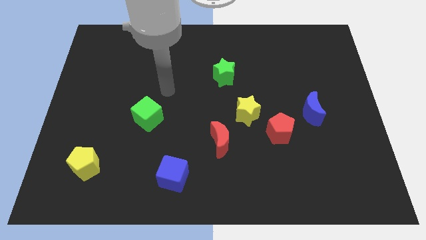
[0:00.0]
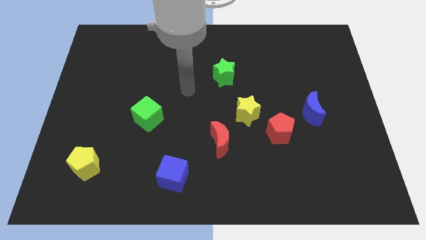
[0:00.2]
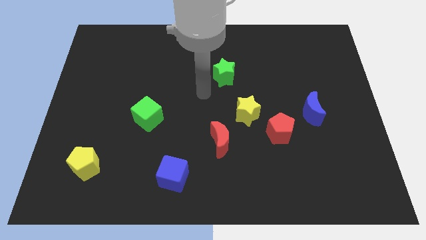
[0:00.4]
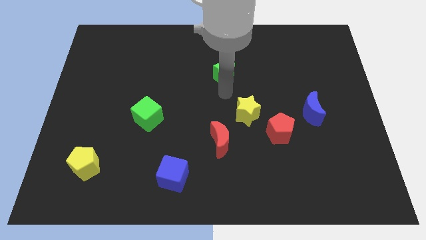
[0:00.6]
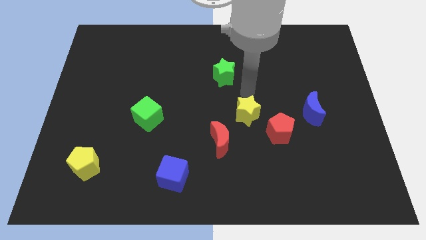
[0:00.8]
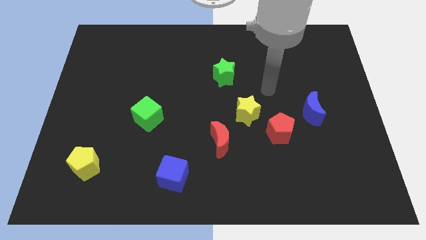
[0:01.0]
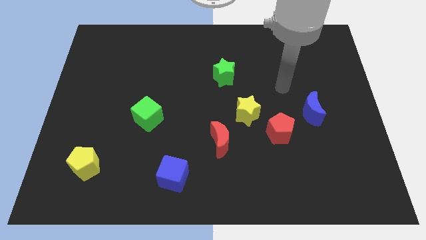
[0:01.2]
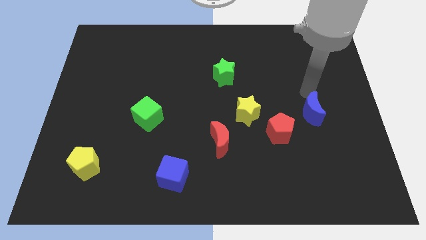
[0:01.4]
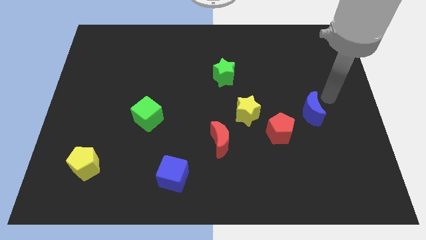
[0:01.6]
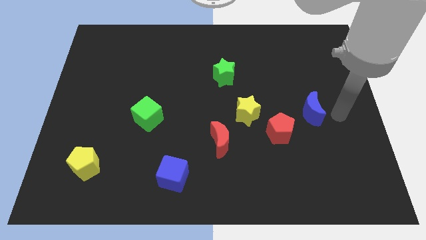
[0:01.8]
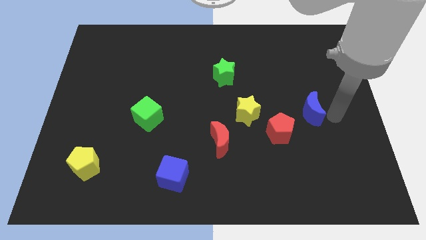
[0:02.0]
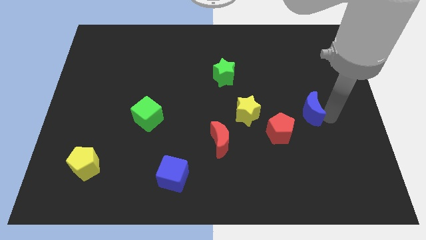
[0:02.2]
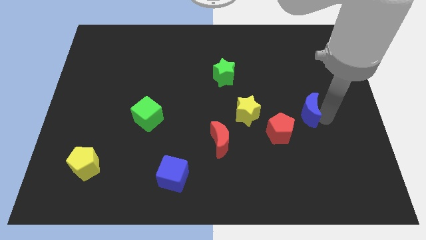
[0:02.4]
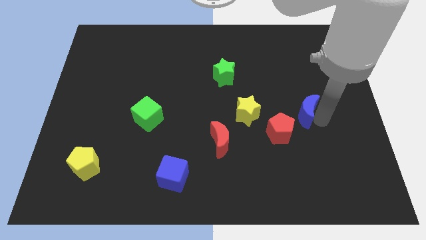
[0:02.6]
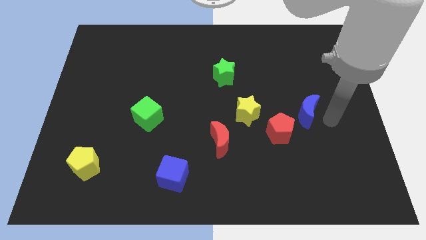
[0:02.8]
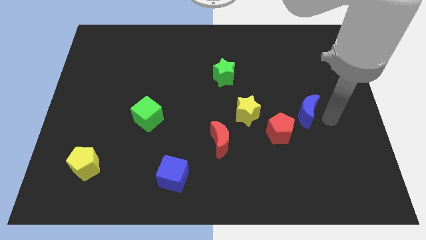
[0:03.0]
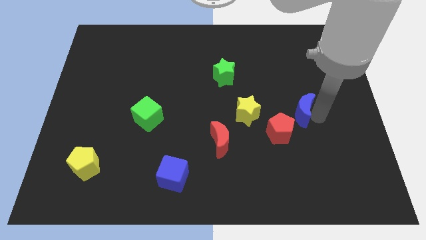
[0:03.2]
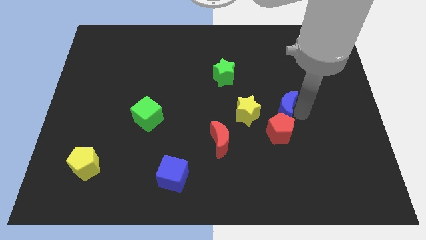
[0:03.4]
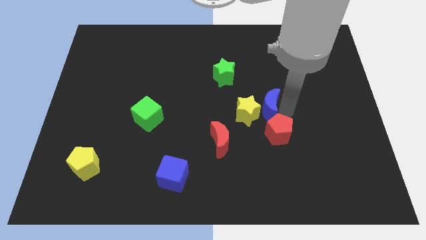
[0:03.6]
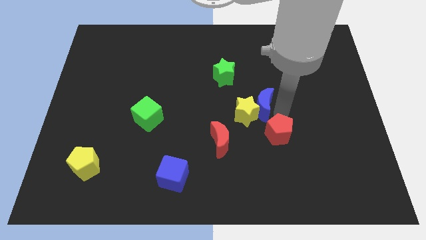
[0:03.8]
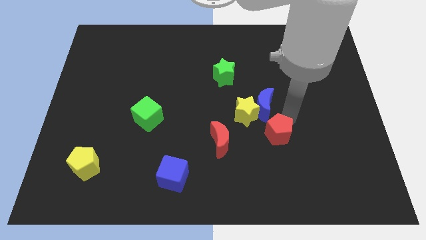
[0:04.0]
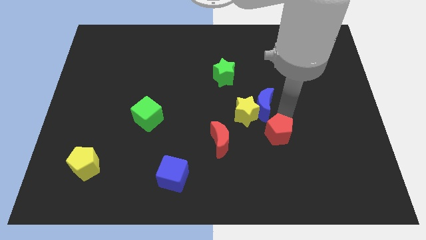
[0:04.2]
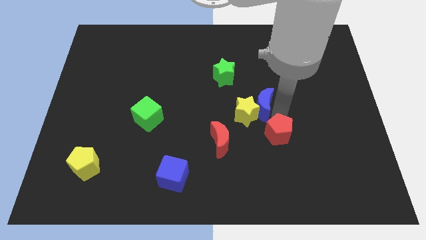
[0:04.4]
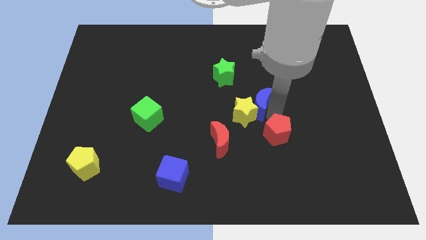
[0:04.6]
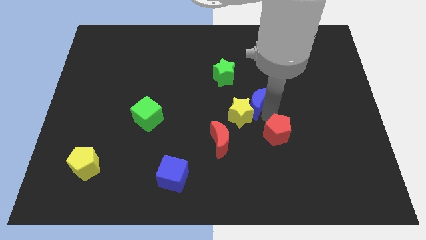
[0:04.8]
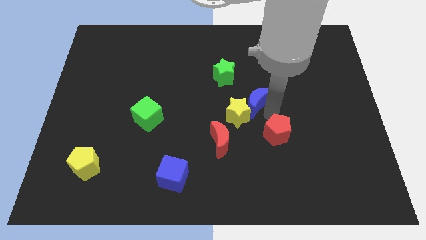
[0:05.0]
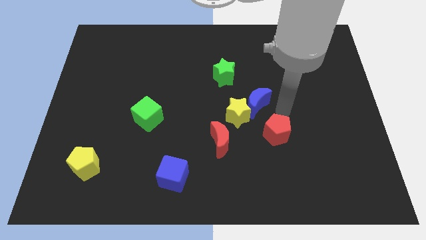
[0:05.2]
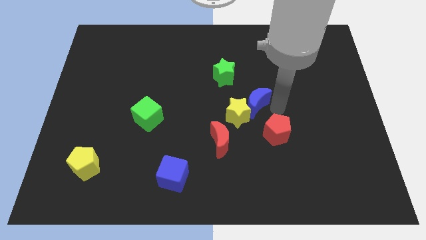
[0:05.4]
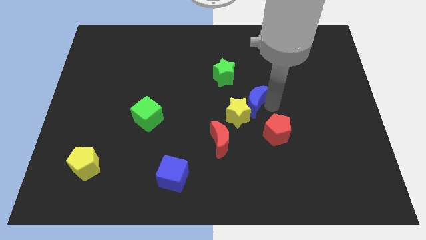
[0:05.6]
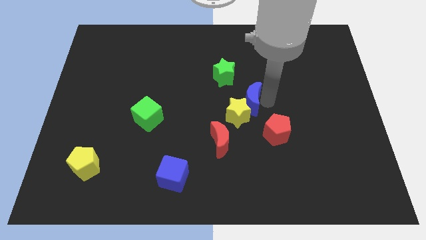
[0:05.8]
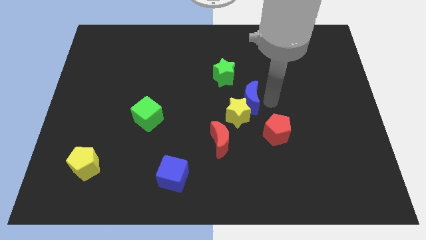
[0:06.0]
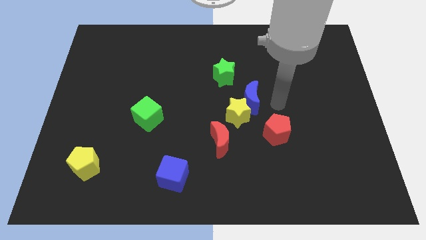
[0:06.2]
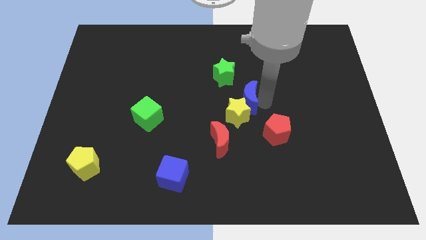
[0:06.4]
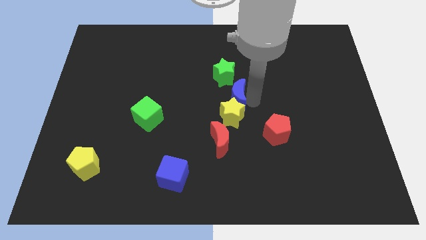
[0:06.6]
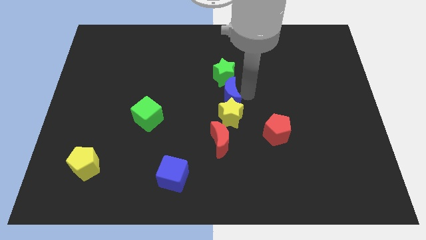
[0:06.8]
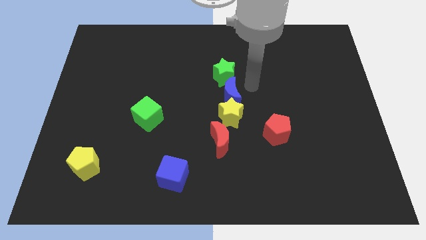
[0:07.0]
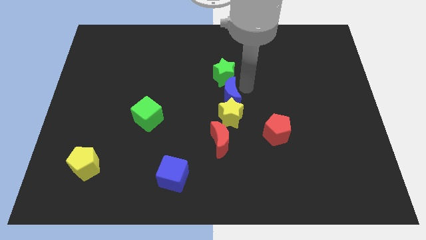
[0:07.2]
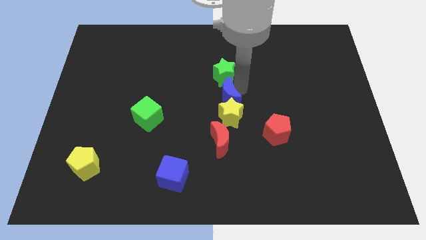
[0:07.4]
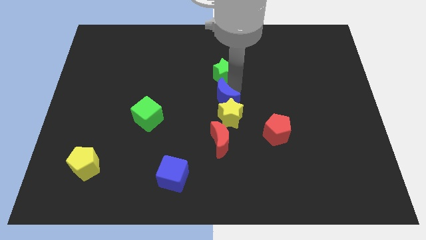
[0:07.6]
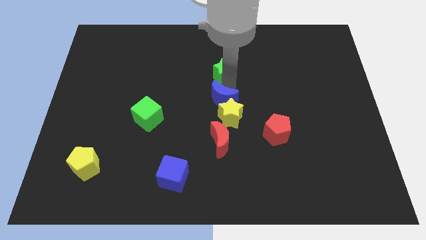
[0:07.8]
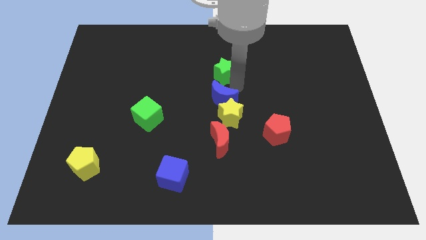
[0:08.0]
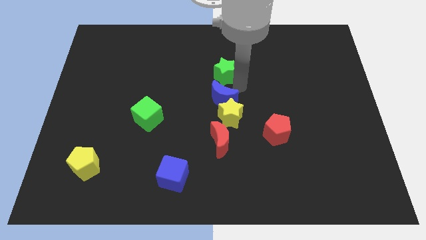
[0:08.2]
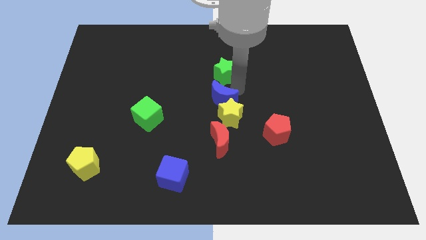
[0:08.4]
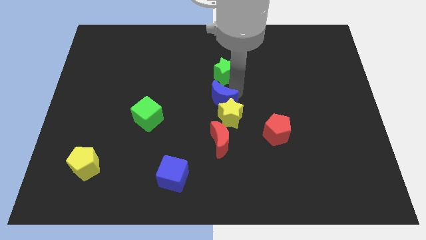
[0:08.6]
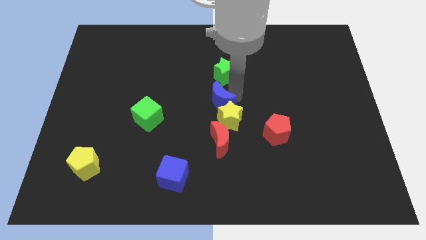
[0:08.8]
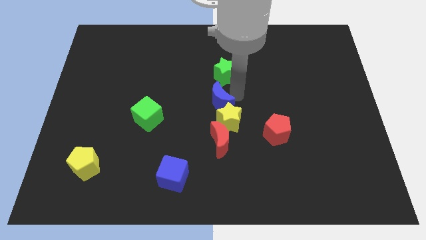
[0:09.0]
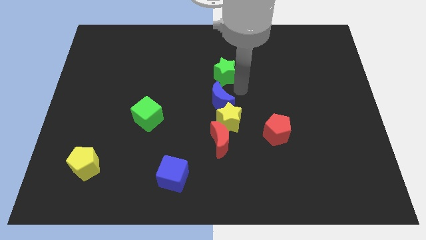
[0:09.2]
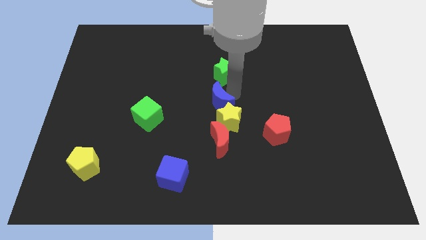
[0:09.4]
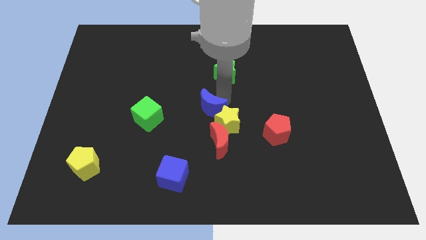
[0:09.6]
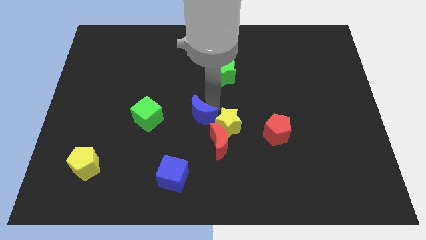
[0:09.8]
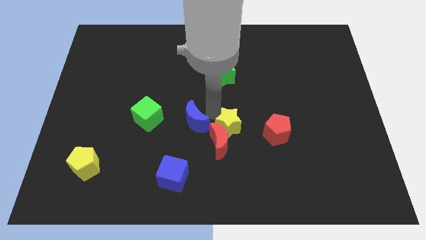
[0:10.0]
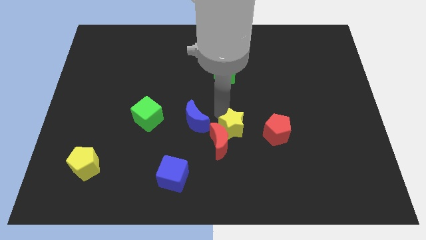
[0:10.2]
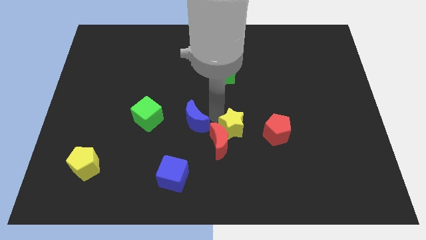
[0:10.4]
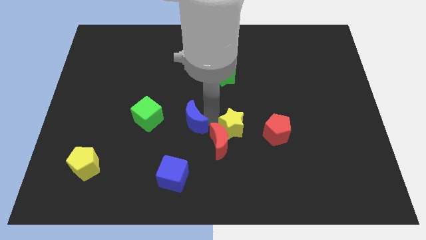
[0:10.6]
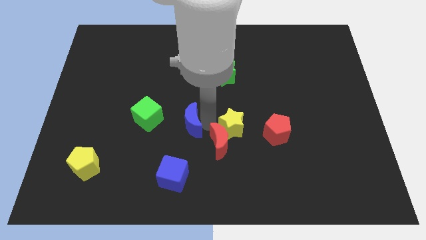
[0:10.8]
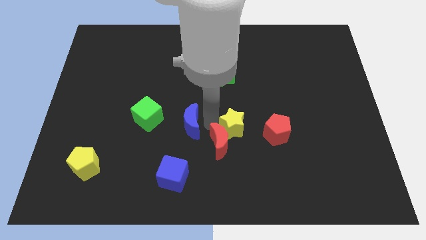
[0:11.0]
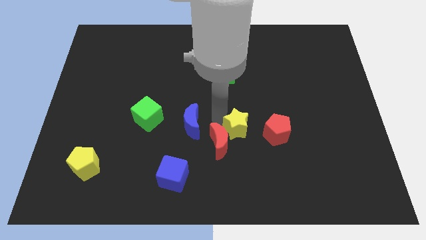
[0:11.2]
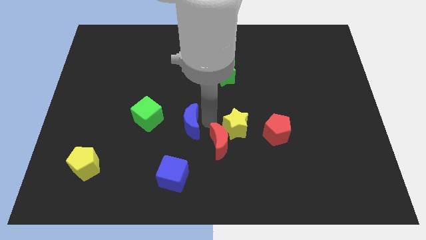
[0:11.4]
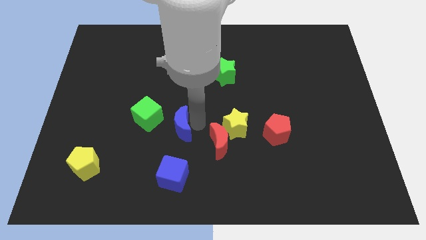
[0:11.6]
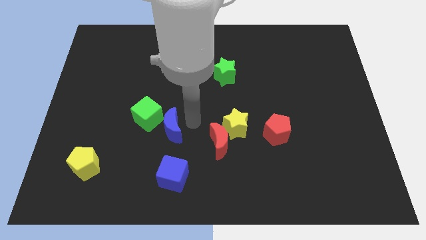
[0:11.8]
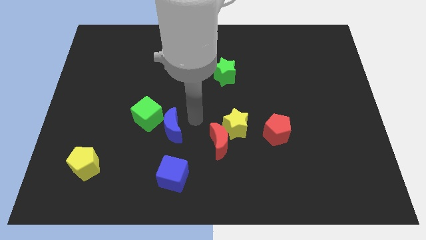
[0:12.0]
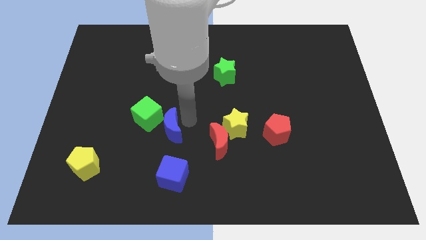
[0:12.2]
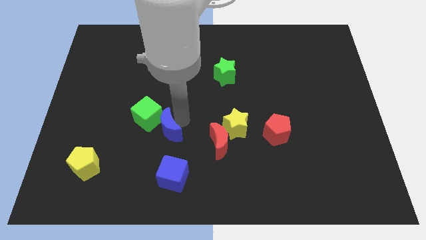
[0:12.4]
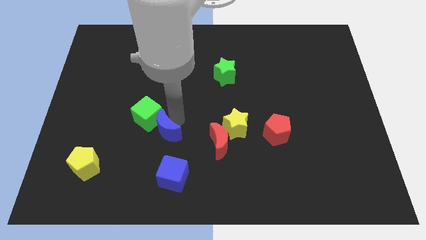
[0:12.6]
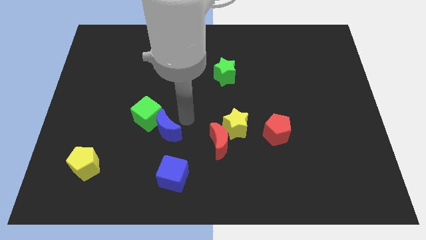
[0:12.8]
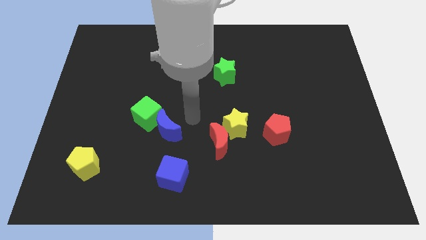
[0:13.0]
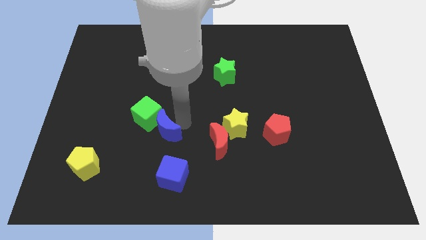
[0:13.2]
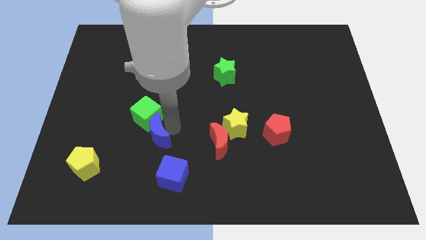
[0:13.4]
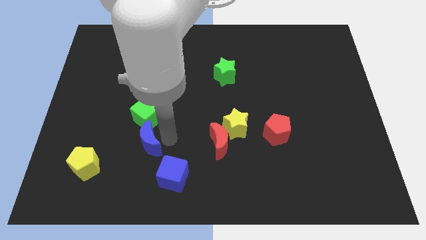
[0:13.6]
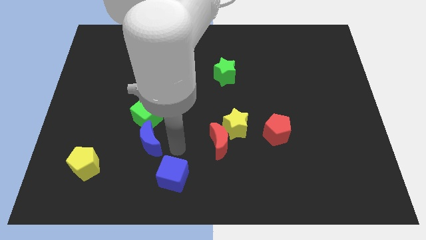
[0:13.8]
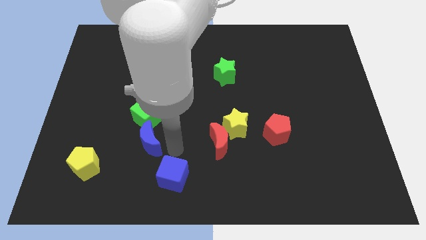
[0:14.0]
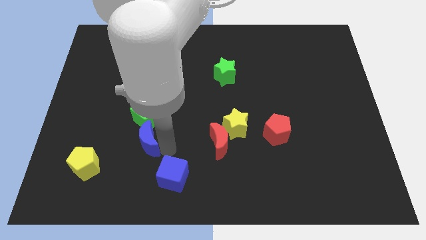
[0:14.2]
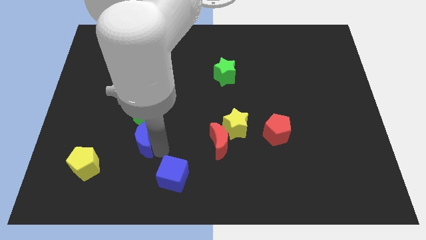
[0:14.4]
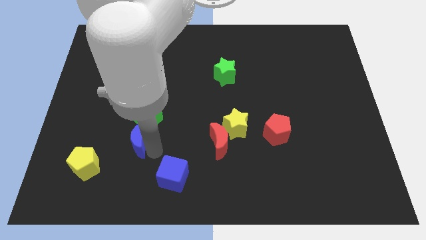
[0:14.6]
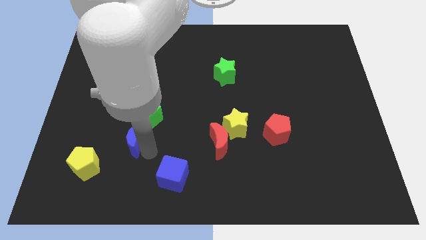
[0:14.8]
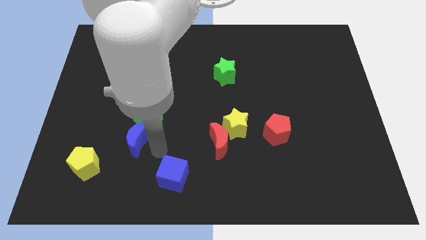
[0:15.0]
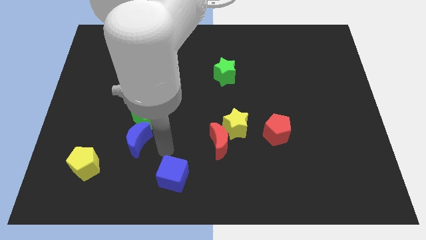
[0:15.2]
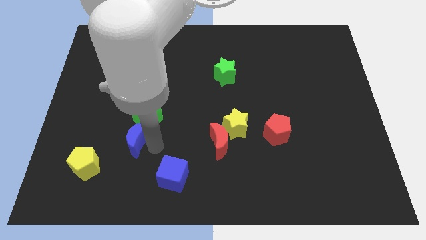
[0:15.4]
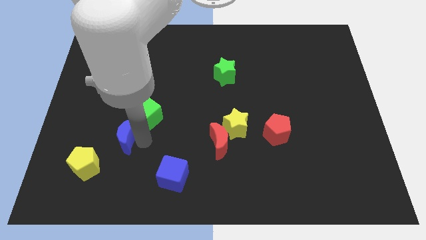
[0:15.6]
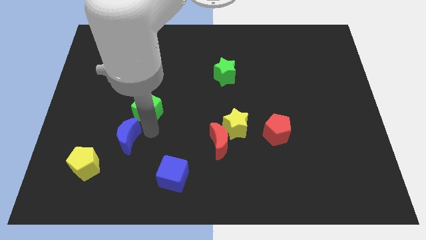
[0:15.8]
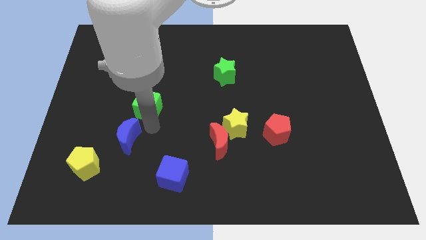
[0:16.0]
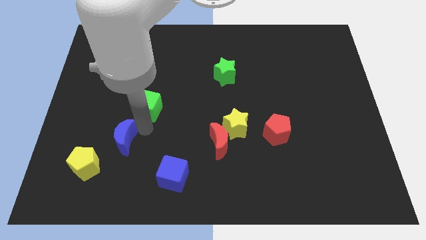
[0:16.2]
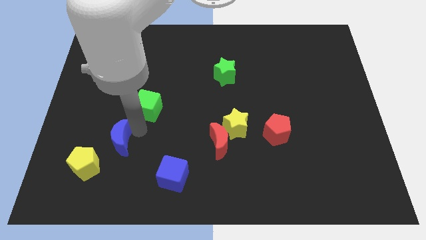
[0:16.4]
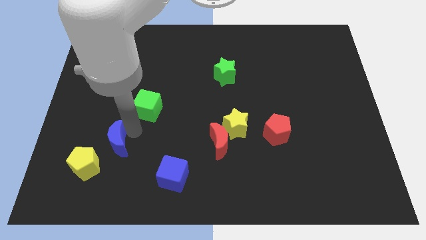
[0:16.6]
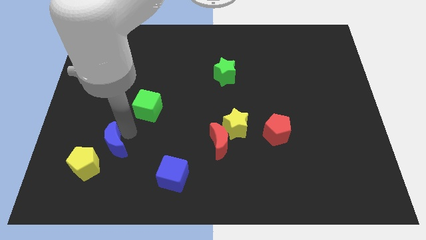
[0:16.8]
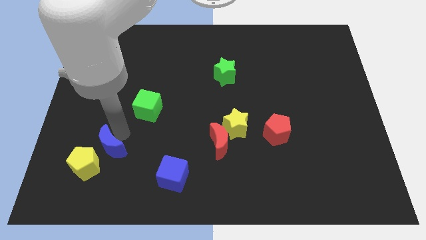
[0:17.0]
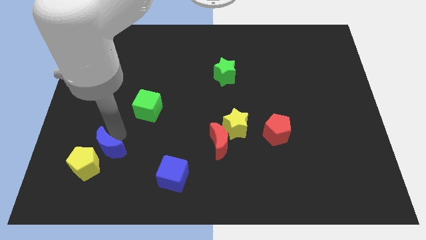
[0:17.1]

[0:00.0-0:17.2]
slide the blue moon next to the yellow pentagon
